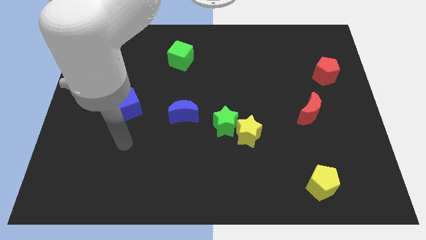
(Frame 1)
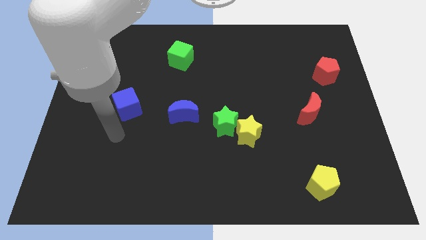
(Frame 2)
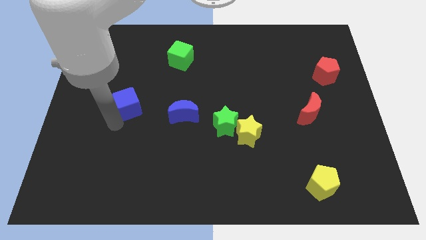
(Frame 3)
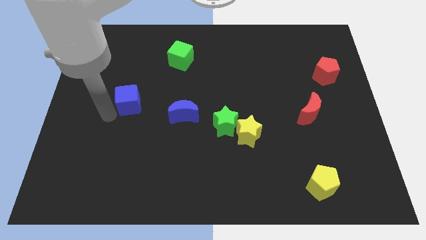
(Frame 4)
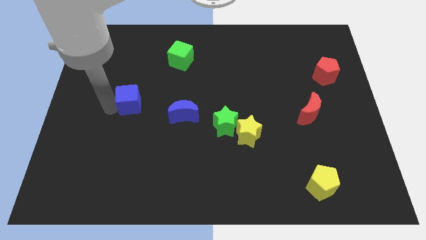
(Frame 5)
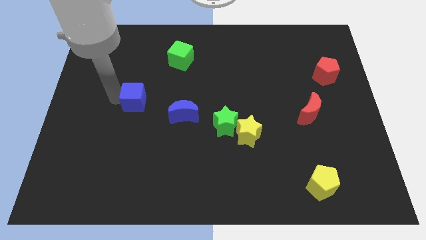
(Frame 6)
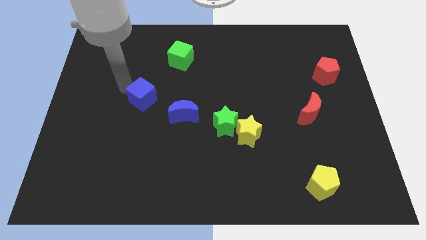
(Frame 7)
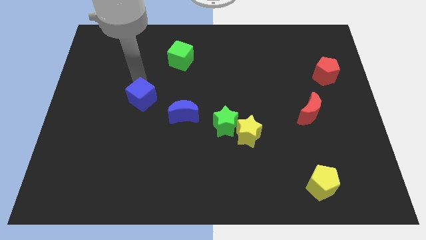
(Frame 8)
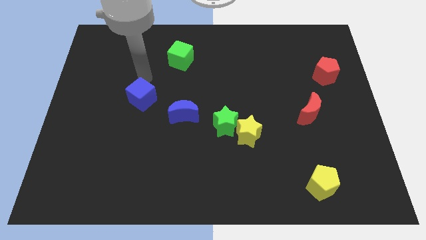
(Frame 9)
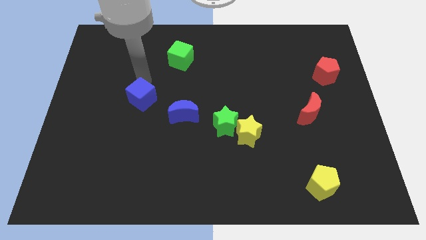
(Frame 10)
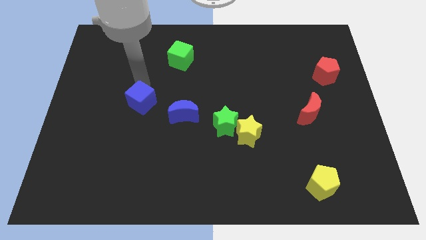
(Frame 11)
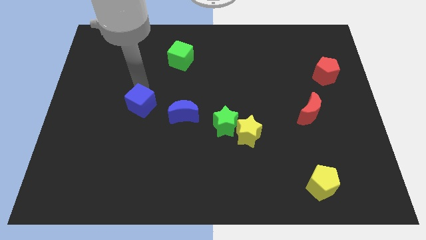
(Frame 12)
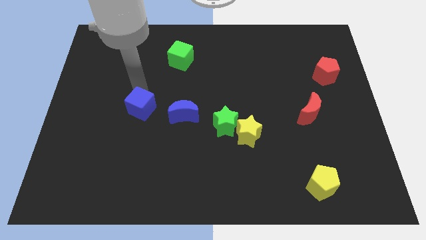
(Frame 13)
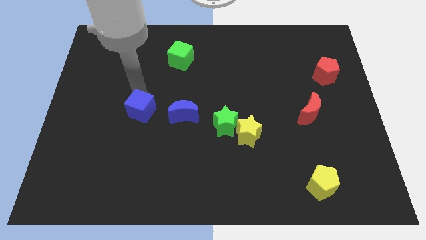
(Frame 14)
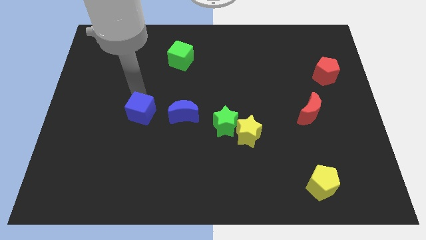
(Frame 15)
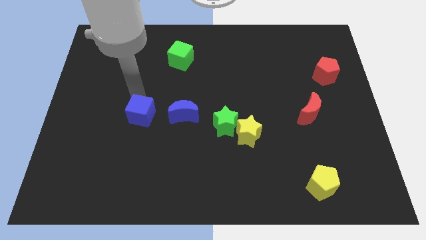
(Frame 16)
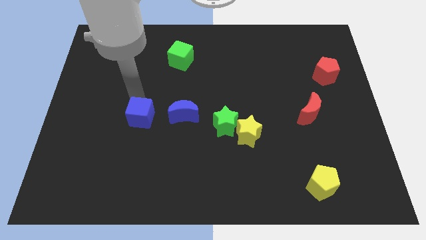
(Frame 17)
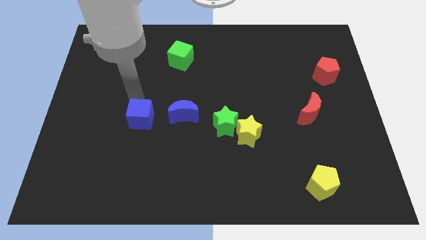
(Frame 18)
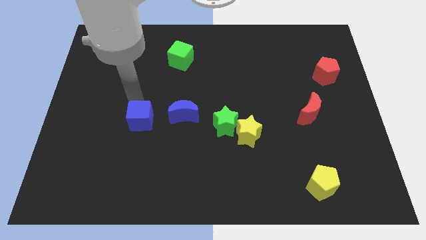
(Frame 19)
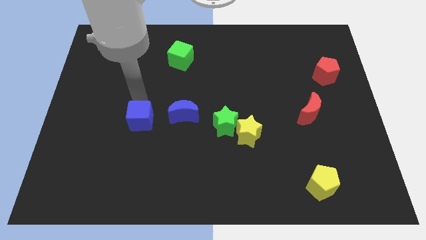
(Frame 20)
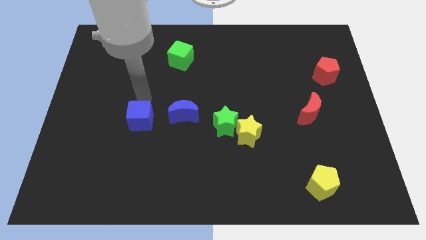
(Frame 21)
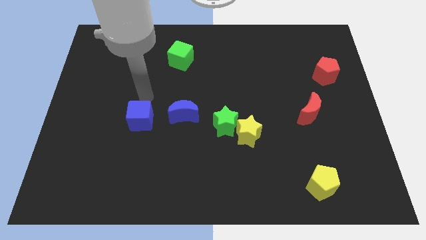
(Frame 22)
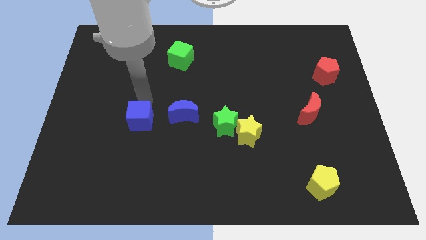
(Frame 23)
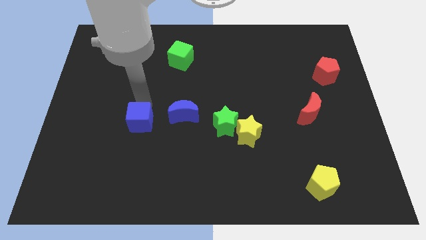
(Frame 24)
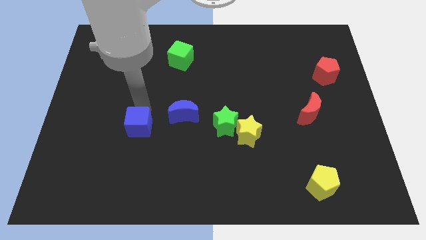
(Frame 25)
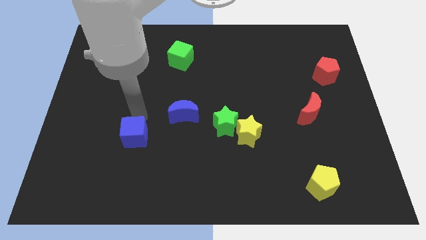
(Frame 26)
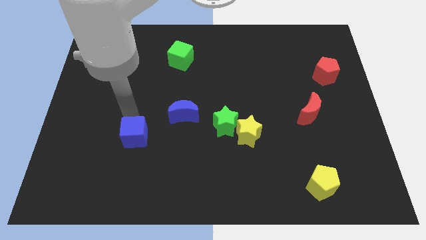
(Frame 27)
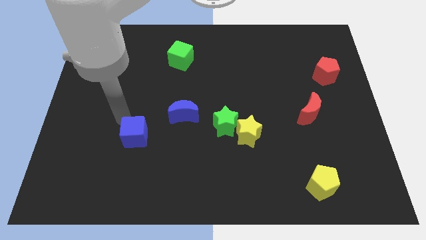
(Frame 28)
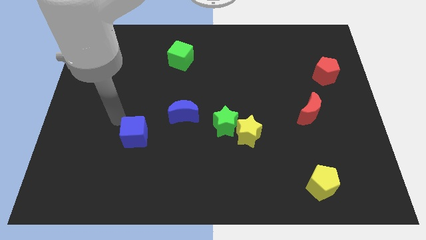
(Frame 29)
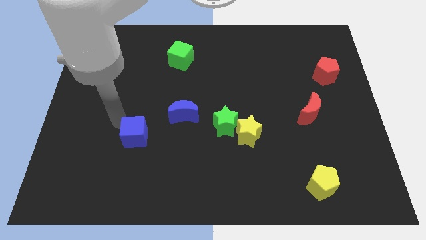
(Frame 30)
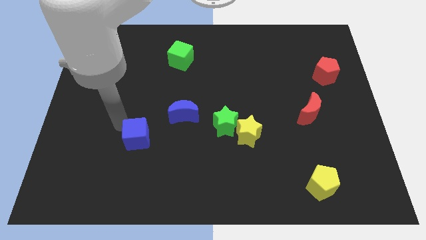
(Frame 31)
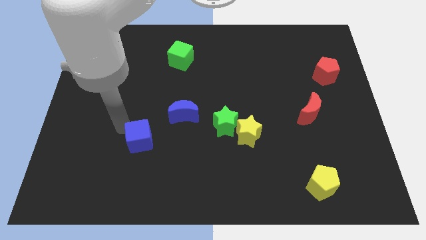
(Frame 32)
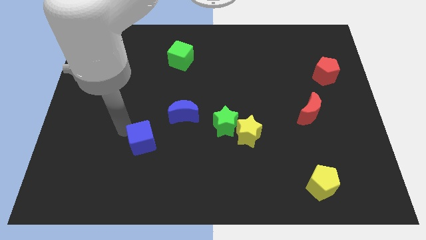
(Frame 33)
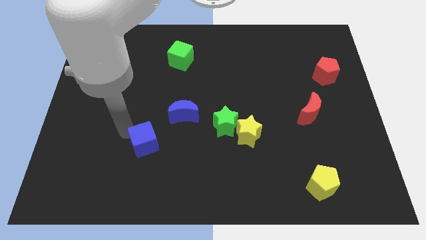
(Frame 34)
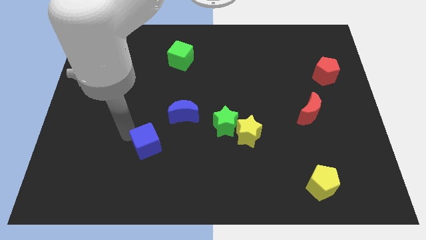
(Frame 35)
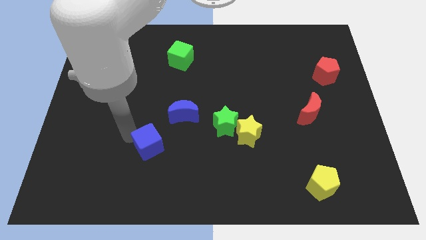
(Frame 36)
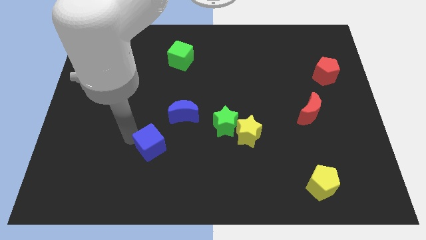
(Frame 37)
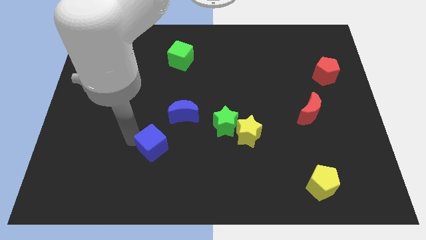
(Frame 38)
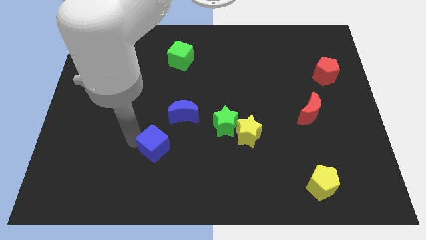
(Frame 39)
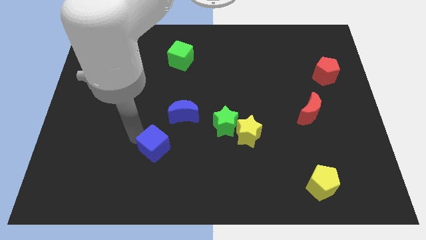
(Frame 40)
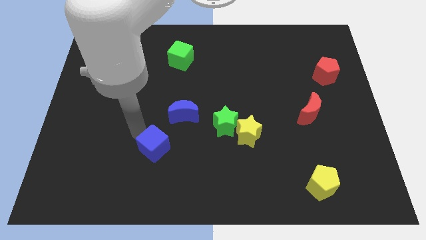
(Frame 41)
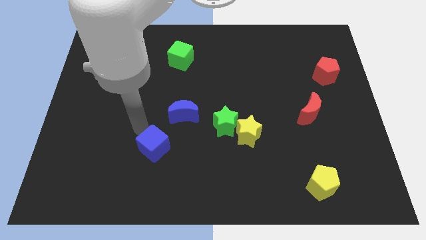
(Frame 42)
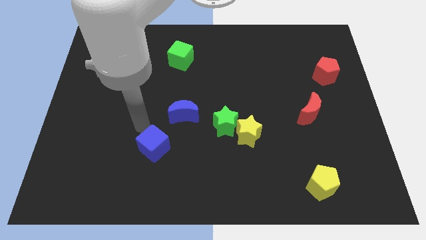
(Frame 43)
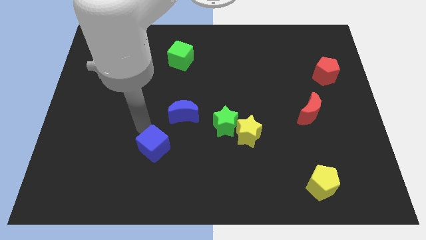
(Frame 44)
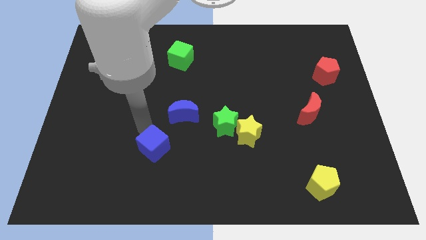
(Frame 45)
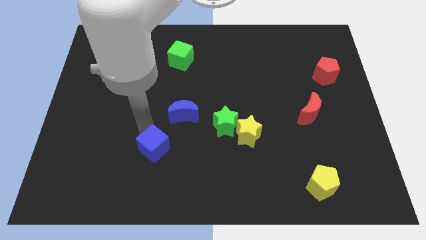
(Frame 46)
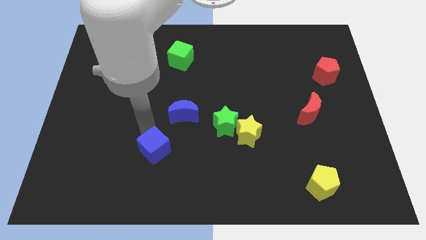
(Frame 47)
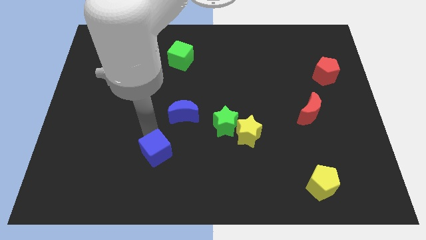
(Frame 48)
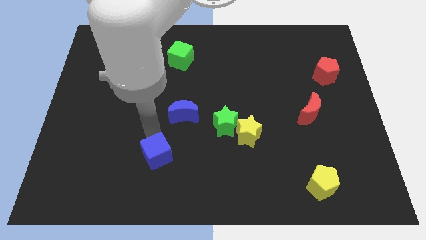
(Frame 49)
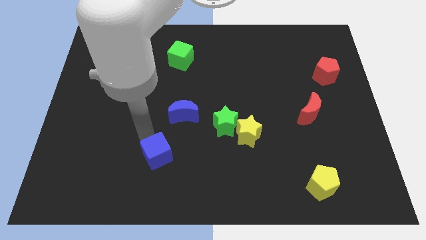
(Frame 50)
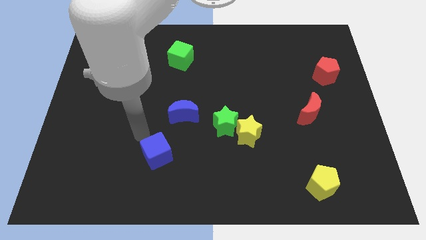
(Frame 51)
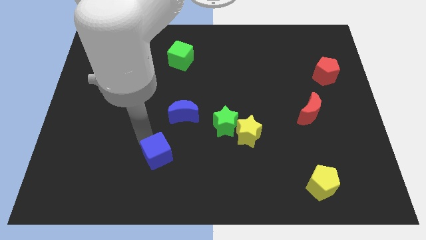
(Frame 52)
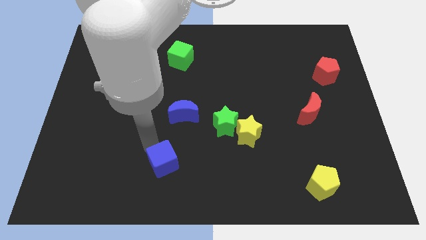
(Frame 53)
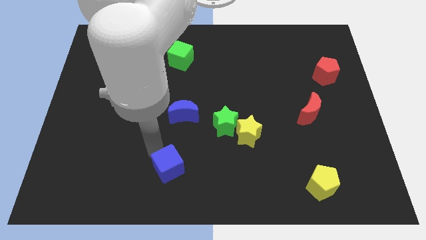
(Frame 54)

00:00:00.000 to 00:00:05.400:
push the blue cube to the bottom side
